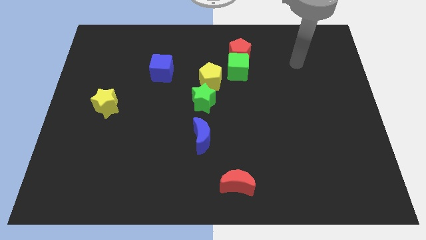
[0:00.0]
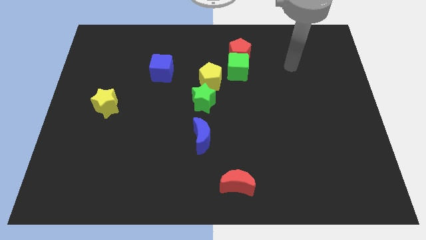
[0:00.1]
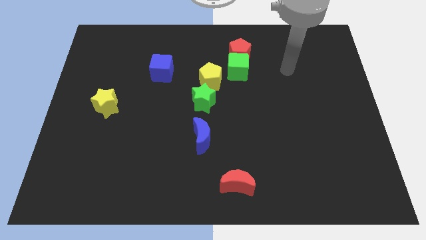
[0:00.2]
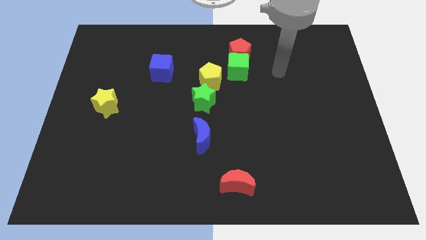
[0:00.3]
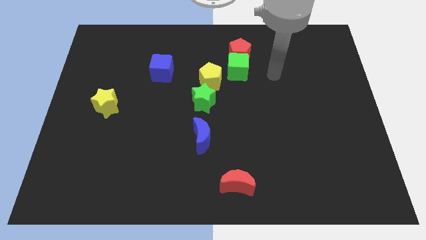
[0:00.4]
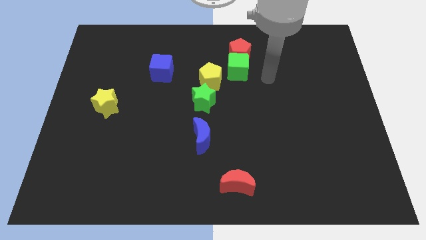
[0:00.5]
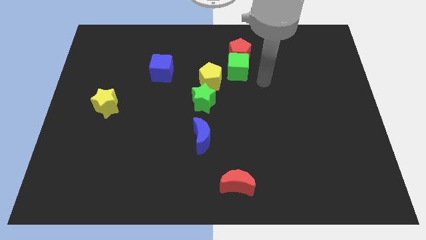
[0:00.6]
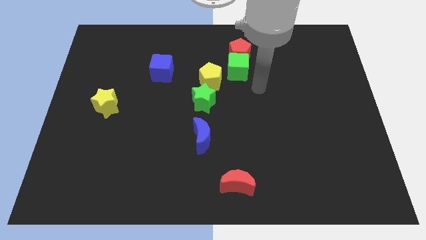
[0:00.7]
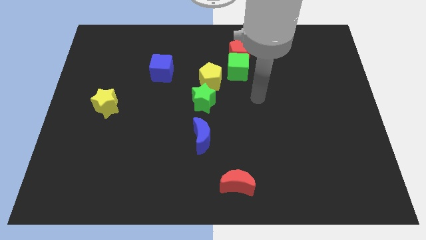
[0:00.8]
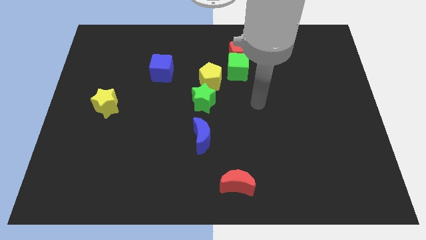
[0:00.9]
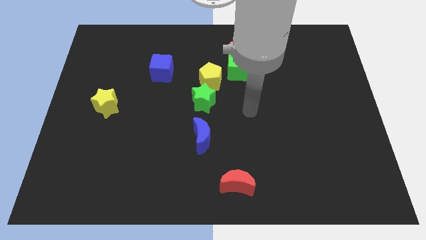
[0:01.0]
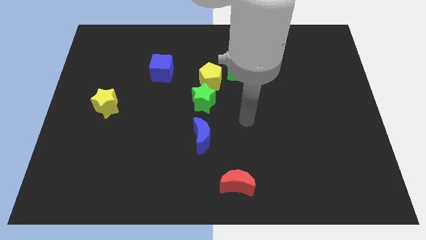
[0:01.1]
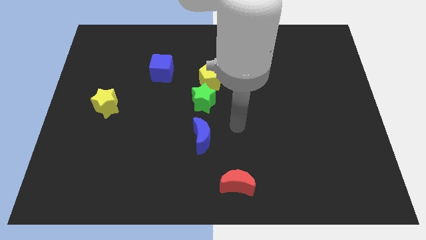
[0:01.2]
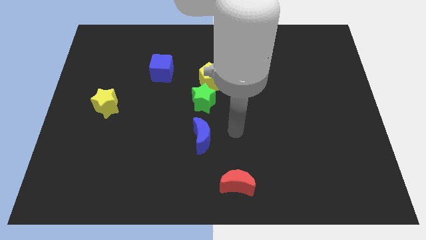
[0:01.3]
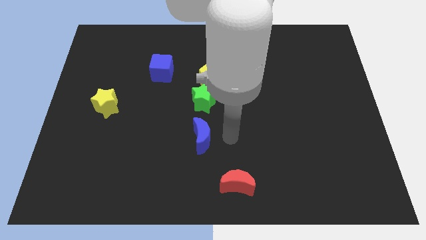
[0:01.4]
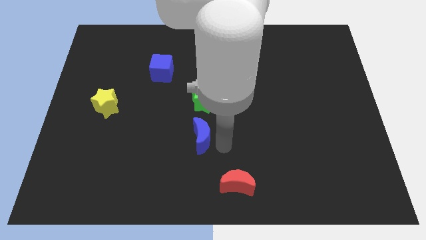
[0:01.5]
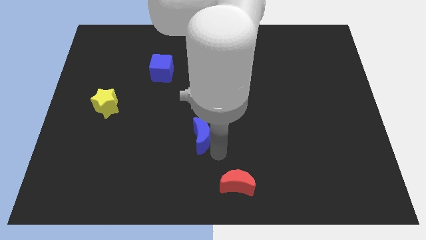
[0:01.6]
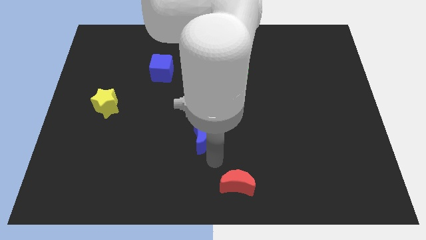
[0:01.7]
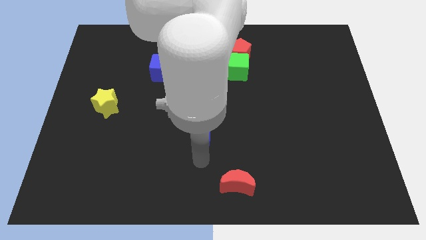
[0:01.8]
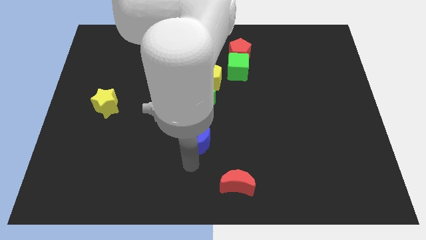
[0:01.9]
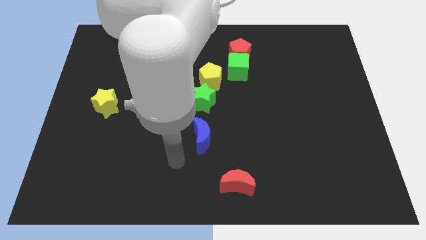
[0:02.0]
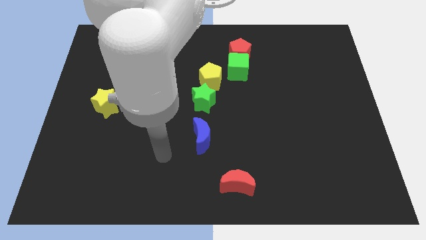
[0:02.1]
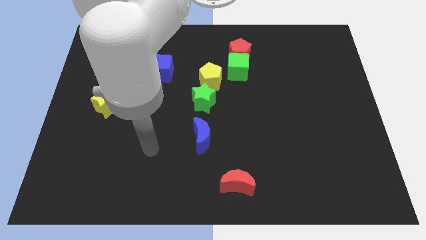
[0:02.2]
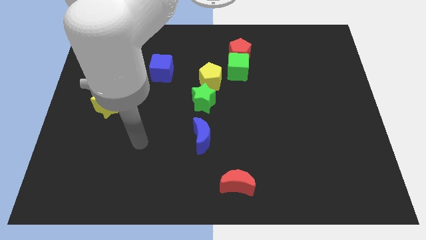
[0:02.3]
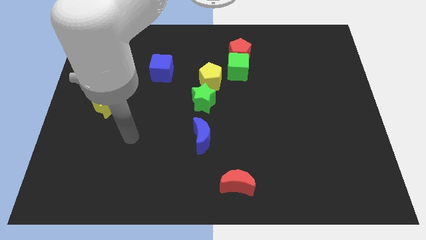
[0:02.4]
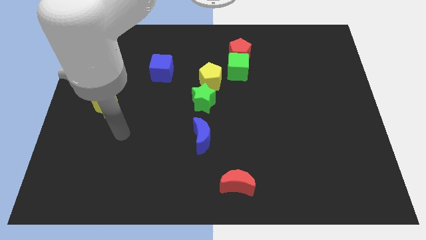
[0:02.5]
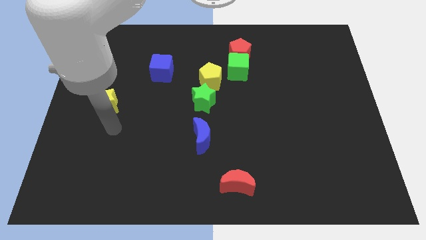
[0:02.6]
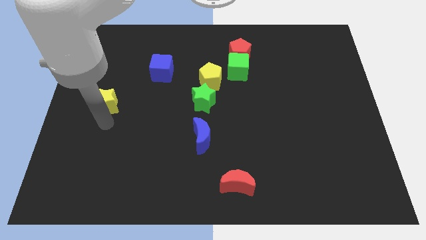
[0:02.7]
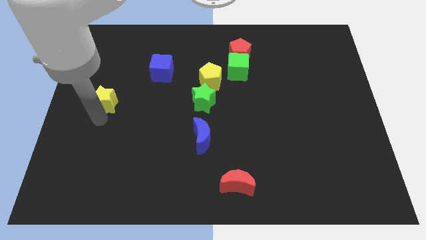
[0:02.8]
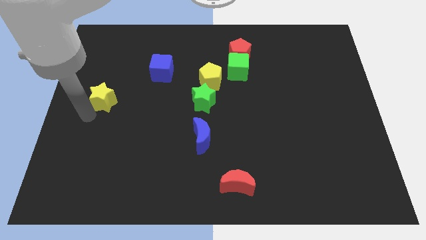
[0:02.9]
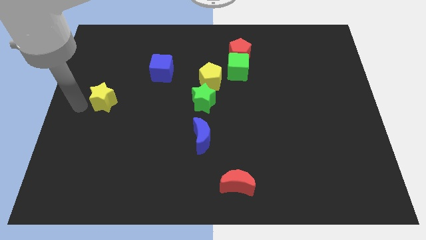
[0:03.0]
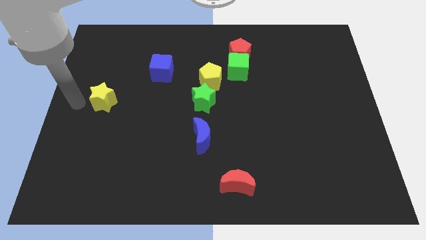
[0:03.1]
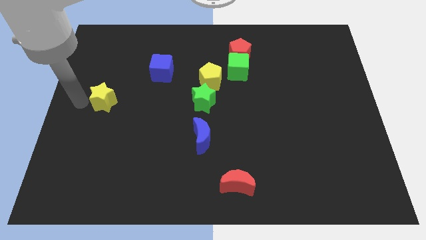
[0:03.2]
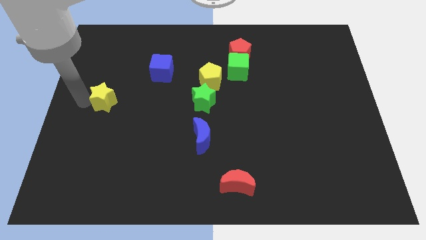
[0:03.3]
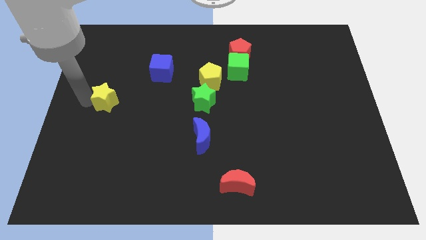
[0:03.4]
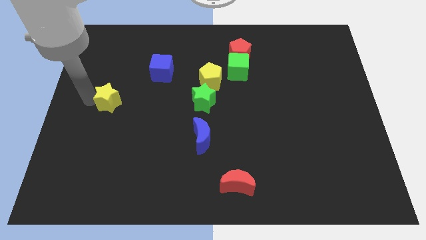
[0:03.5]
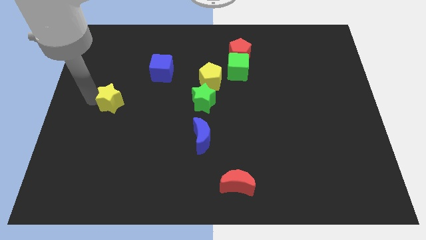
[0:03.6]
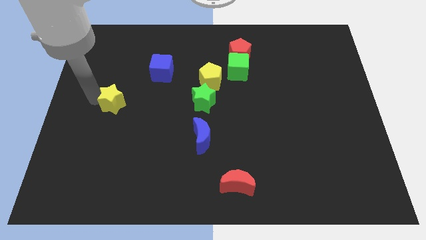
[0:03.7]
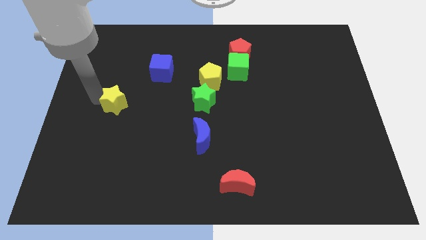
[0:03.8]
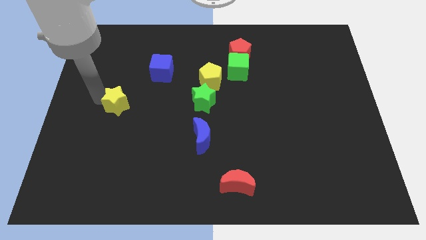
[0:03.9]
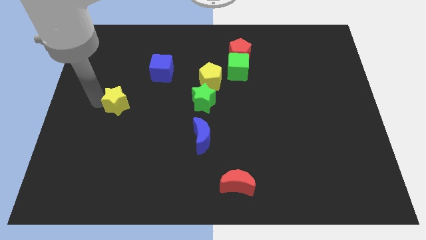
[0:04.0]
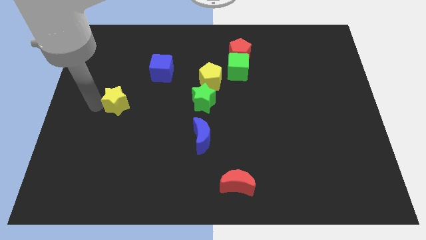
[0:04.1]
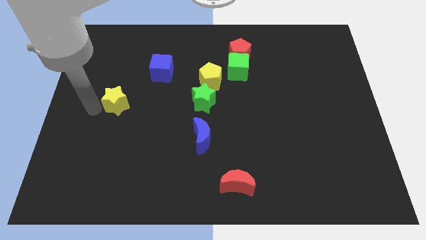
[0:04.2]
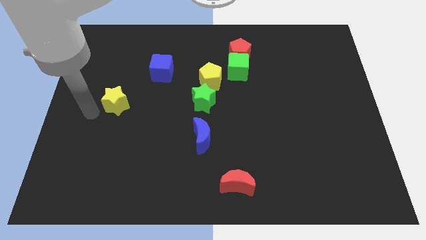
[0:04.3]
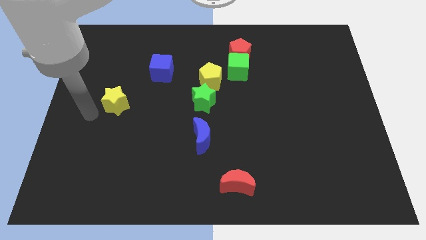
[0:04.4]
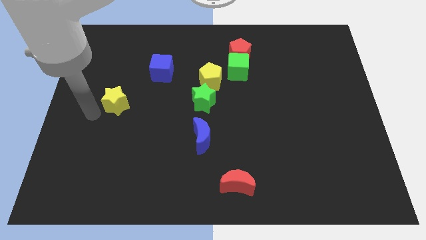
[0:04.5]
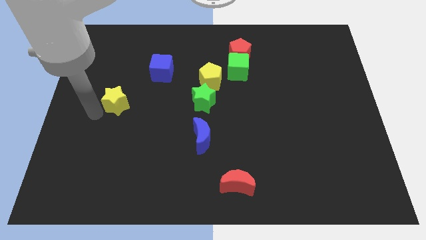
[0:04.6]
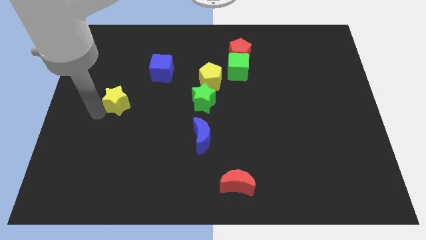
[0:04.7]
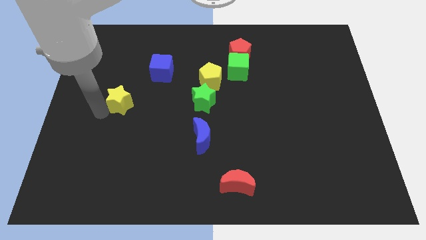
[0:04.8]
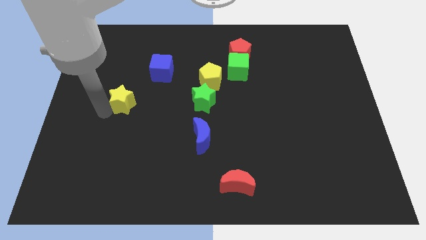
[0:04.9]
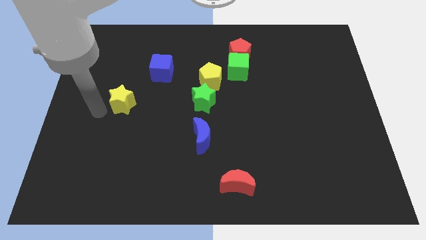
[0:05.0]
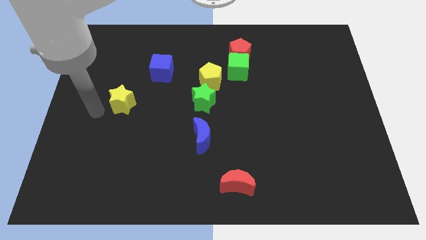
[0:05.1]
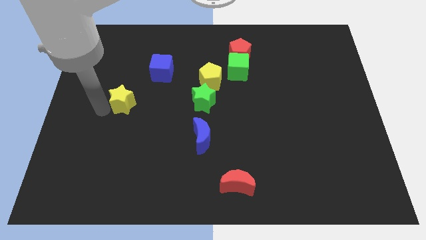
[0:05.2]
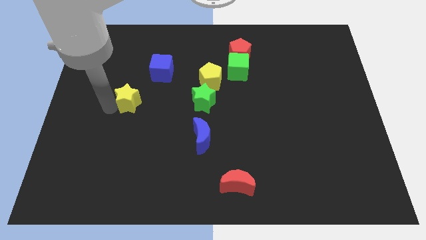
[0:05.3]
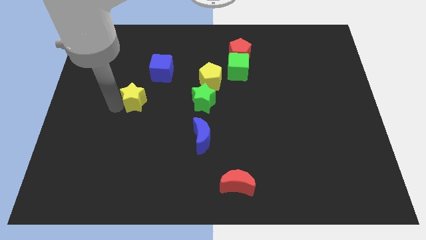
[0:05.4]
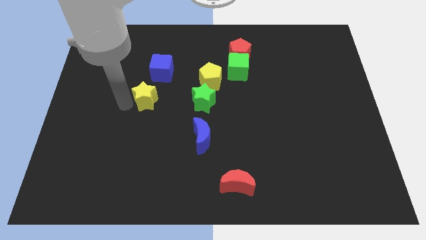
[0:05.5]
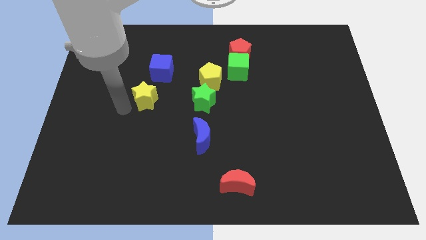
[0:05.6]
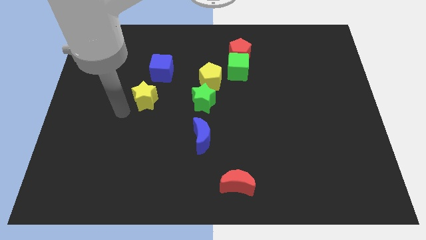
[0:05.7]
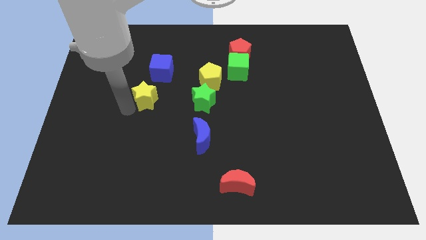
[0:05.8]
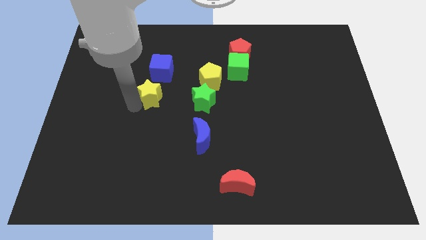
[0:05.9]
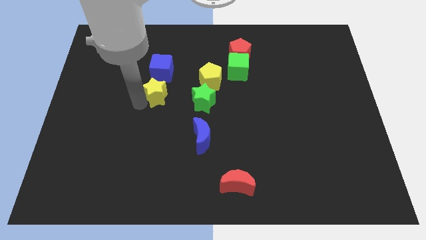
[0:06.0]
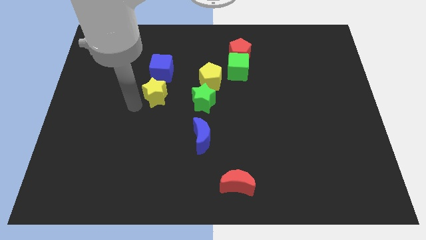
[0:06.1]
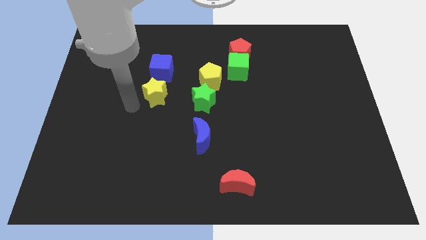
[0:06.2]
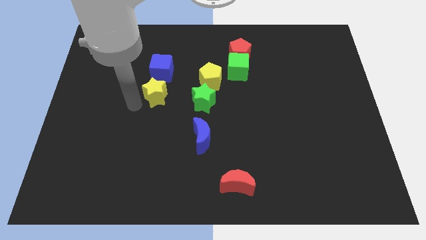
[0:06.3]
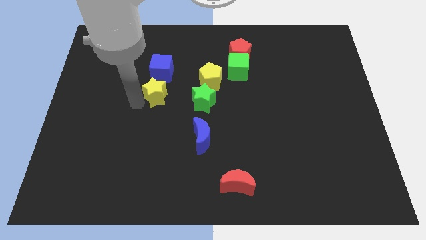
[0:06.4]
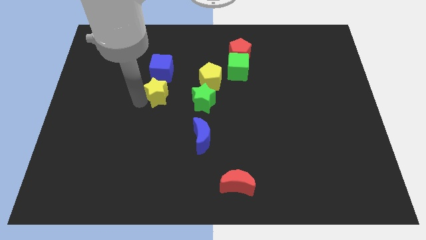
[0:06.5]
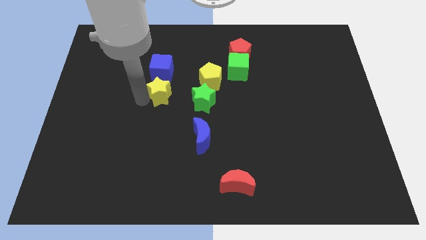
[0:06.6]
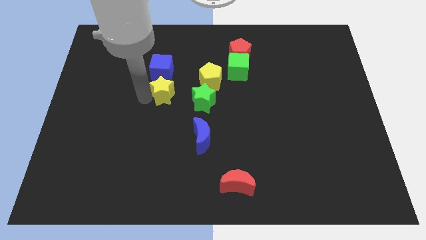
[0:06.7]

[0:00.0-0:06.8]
put the yellow star diagonally up and to the left of the green star

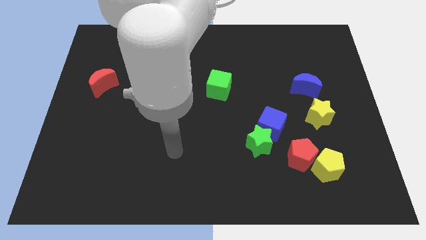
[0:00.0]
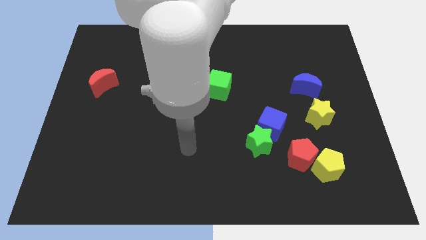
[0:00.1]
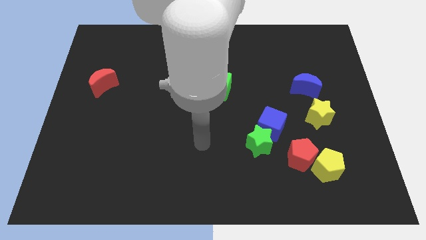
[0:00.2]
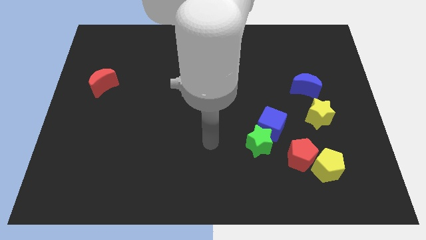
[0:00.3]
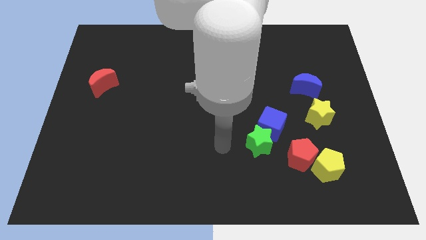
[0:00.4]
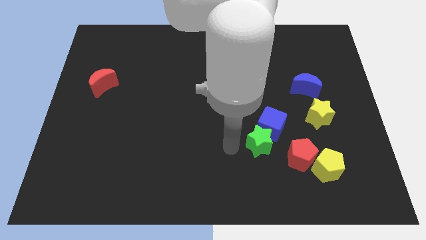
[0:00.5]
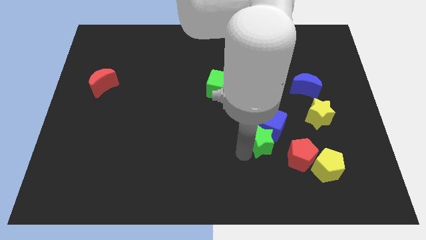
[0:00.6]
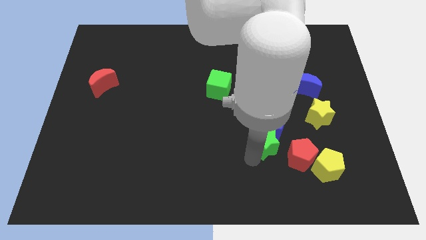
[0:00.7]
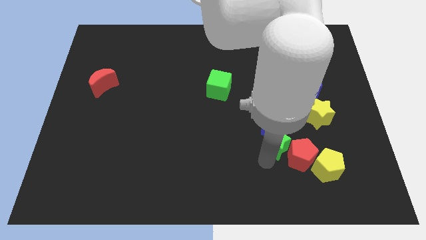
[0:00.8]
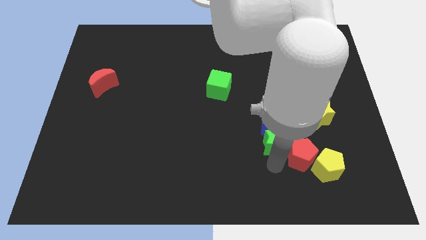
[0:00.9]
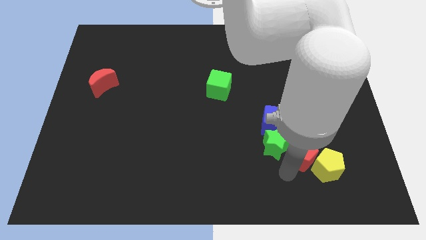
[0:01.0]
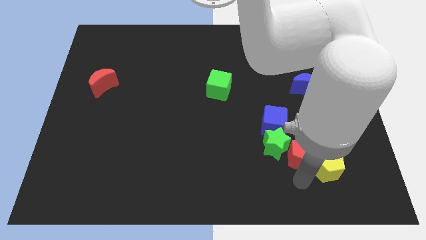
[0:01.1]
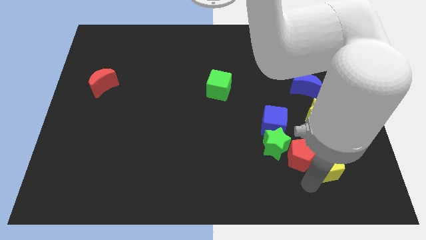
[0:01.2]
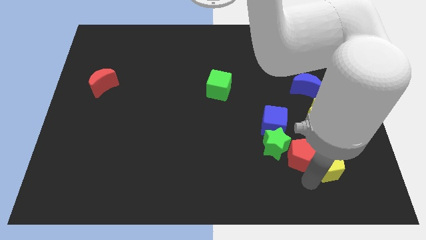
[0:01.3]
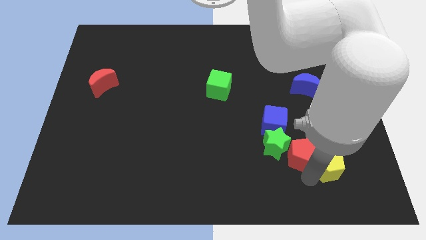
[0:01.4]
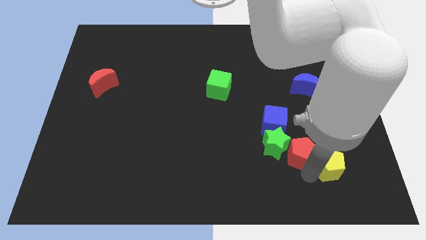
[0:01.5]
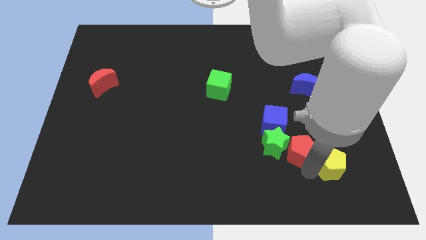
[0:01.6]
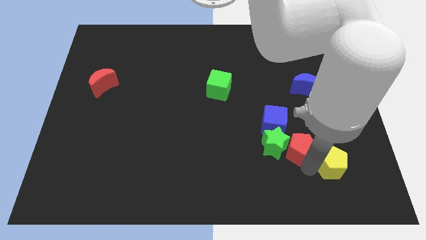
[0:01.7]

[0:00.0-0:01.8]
push the red pentagon diagonally up and to the right of the green star

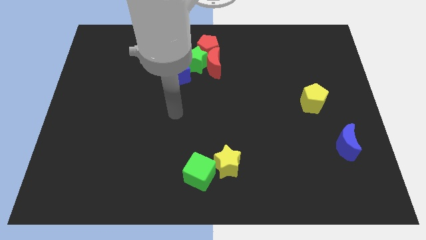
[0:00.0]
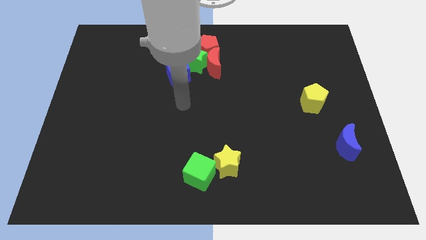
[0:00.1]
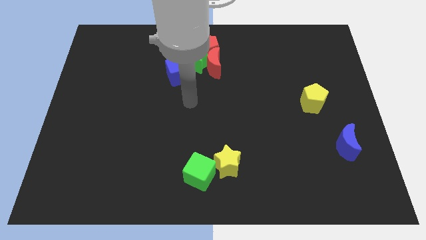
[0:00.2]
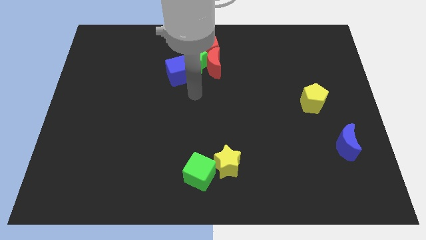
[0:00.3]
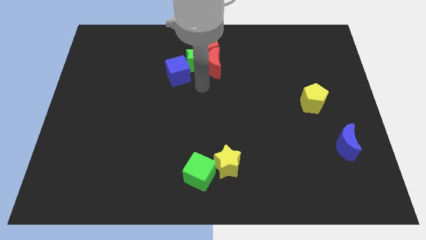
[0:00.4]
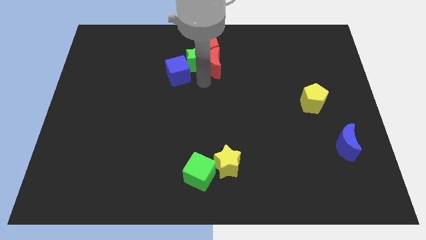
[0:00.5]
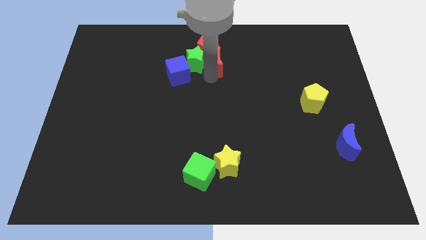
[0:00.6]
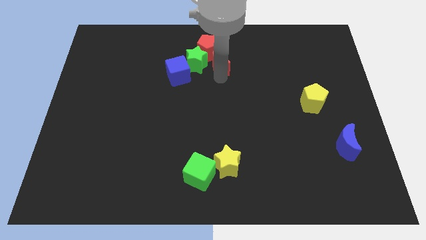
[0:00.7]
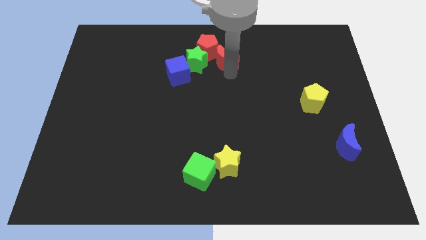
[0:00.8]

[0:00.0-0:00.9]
put the red pentagon just left of the red moon
